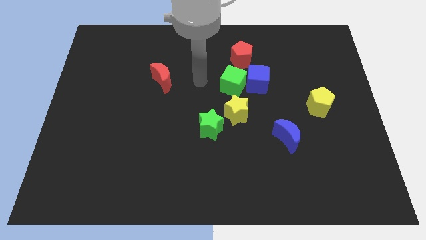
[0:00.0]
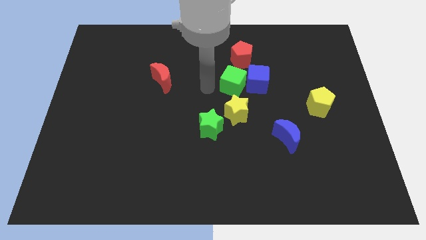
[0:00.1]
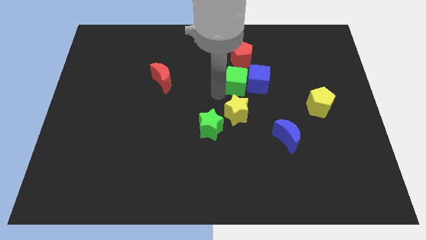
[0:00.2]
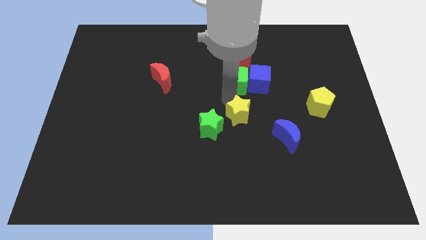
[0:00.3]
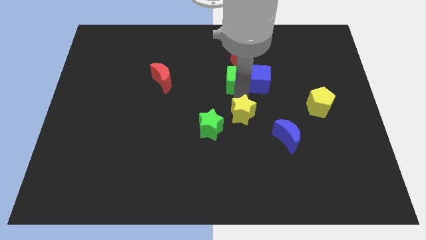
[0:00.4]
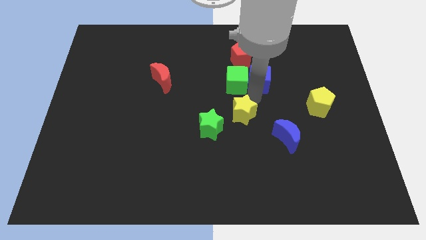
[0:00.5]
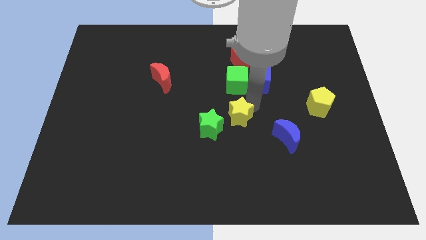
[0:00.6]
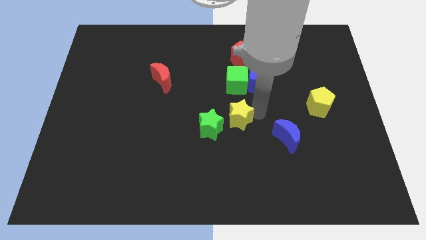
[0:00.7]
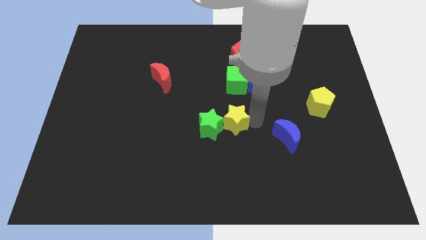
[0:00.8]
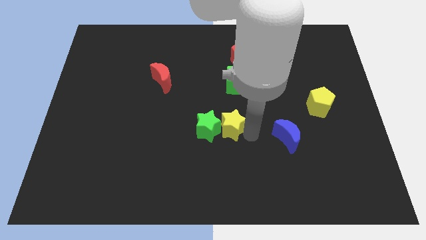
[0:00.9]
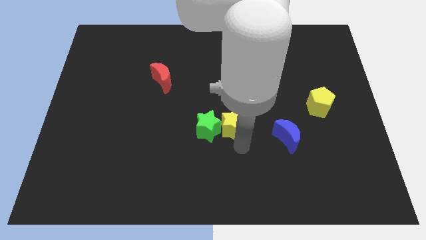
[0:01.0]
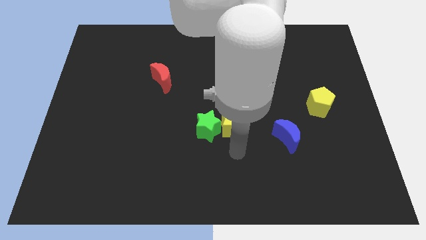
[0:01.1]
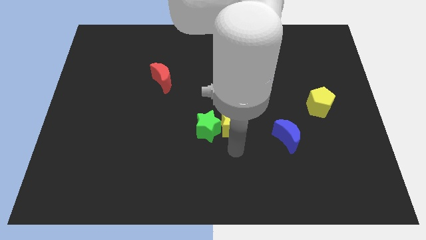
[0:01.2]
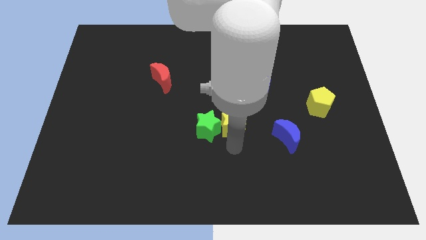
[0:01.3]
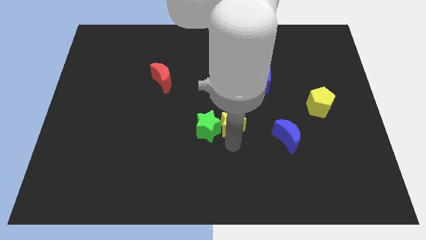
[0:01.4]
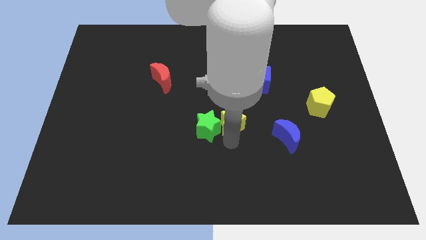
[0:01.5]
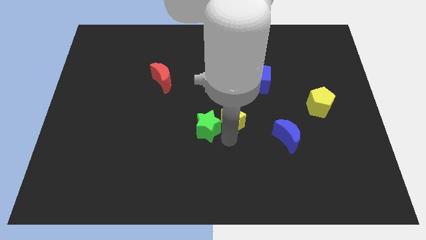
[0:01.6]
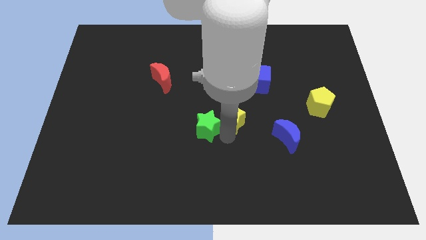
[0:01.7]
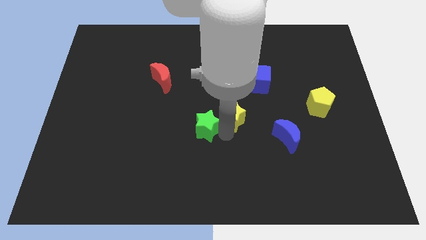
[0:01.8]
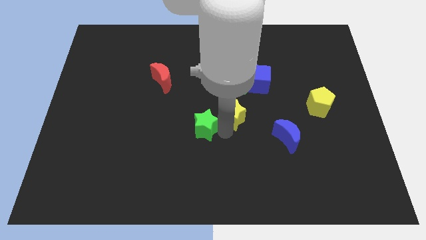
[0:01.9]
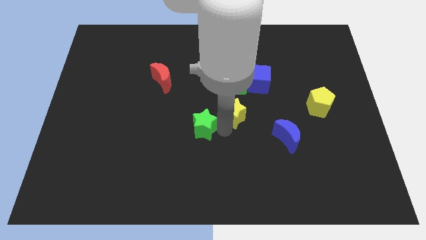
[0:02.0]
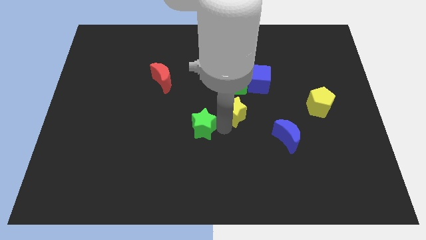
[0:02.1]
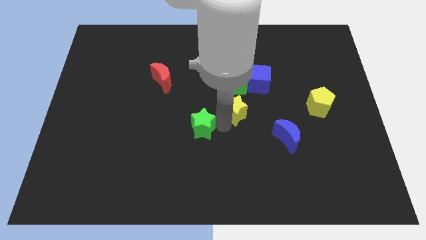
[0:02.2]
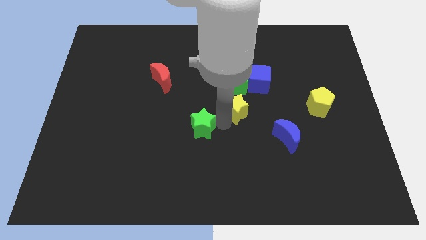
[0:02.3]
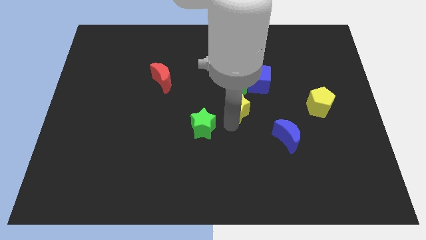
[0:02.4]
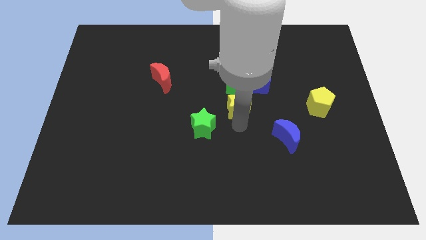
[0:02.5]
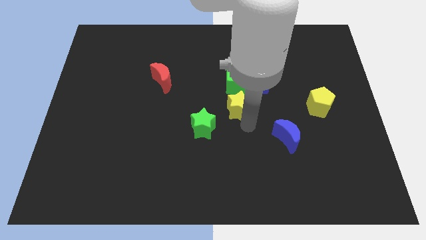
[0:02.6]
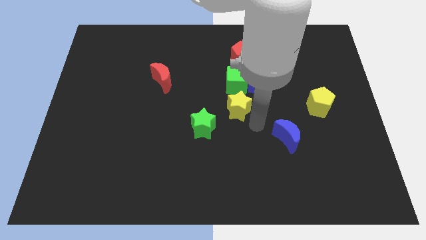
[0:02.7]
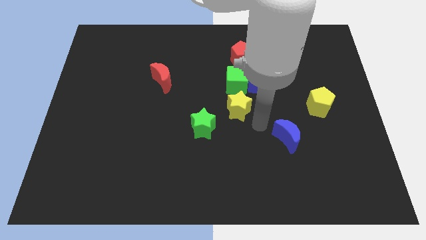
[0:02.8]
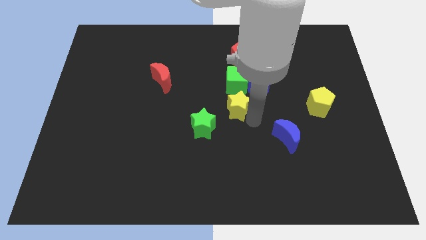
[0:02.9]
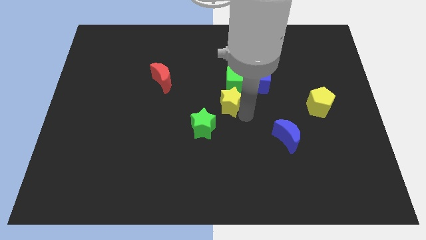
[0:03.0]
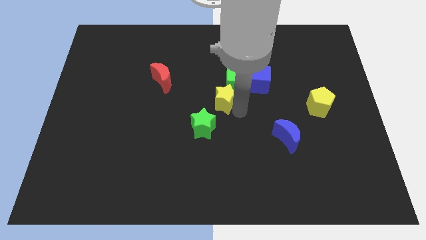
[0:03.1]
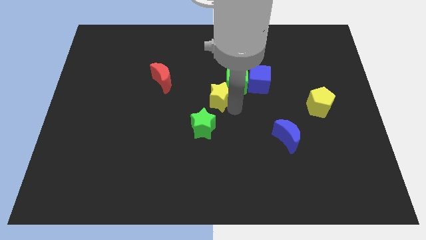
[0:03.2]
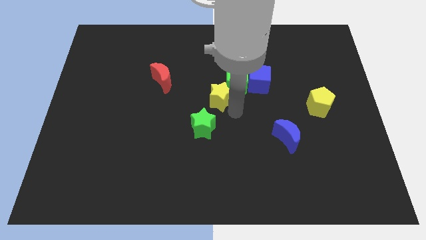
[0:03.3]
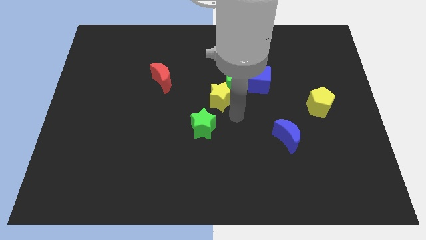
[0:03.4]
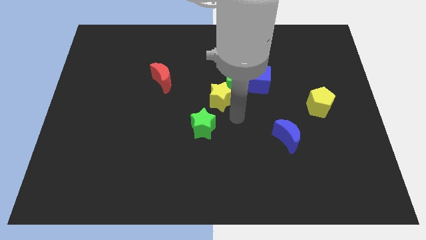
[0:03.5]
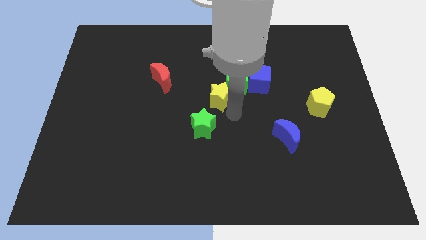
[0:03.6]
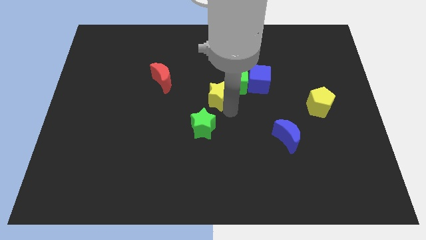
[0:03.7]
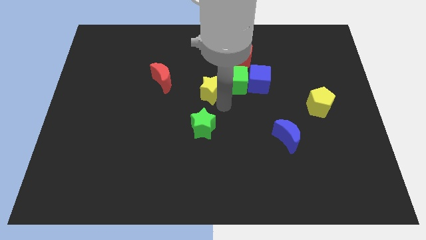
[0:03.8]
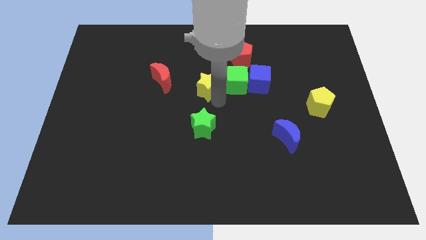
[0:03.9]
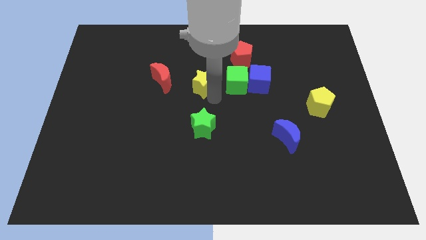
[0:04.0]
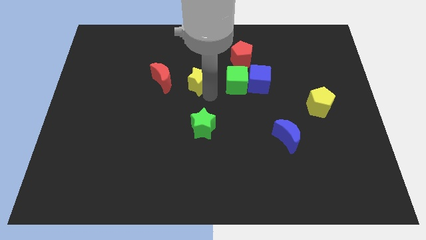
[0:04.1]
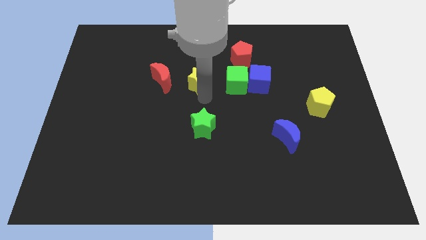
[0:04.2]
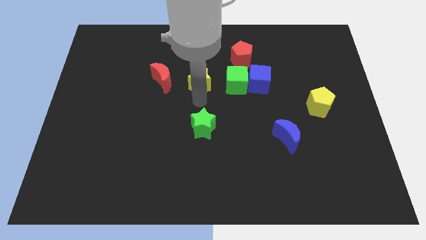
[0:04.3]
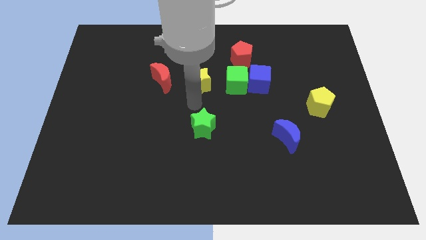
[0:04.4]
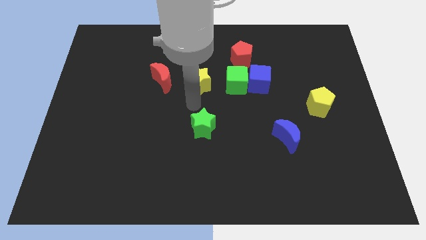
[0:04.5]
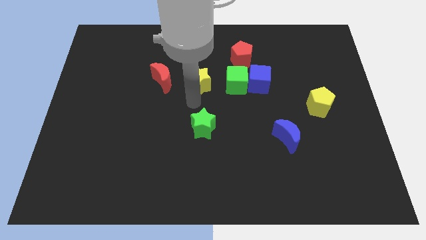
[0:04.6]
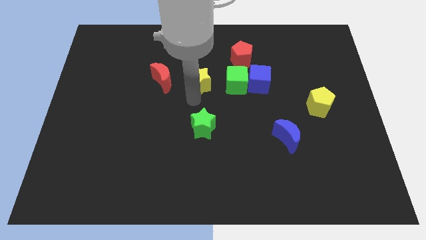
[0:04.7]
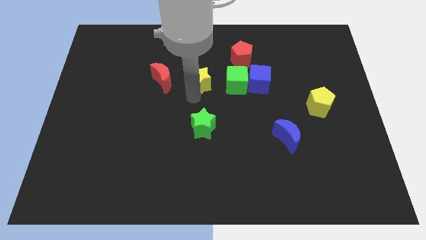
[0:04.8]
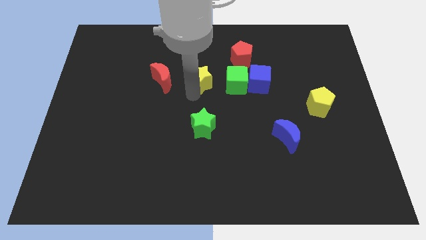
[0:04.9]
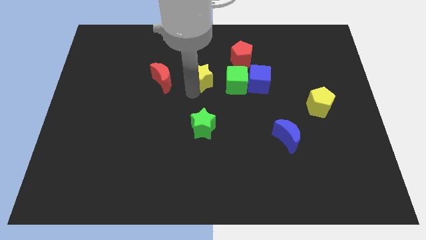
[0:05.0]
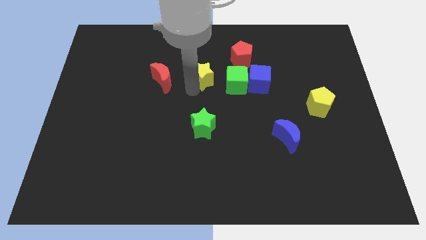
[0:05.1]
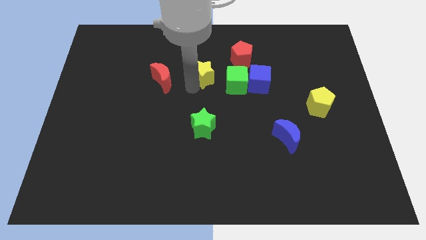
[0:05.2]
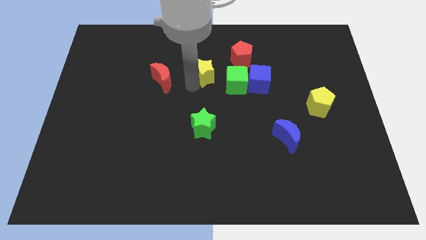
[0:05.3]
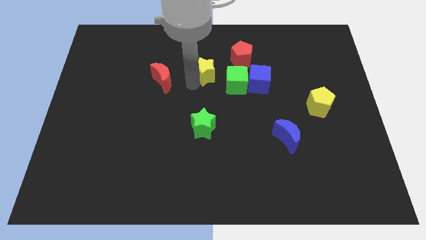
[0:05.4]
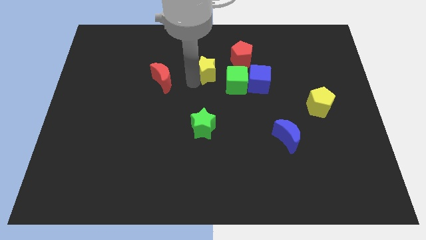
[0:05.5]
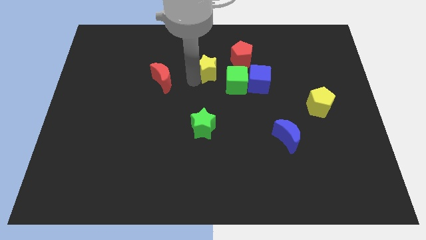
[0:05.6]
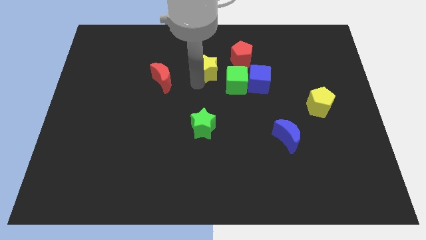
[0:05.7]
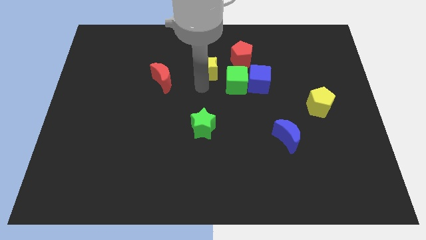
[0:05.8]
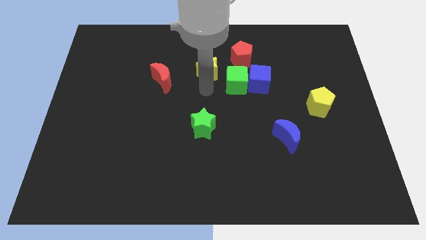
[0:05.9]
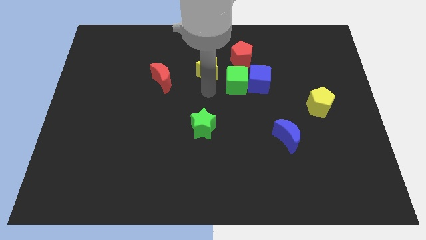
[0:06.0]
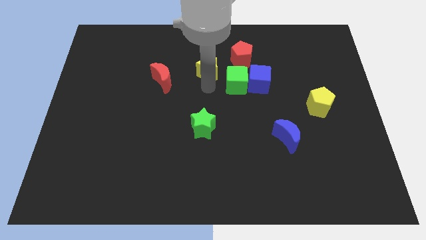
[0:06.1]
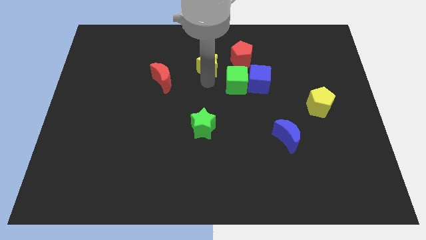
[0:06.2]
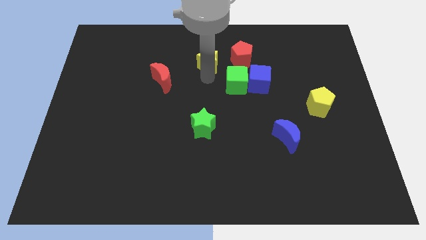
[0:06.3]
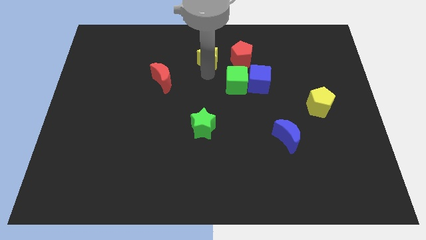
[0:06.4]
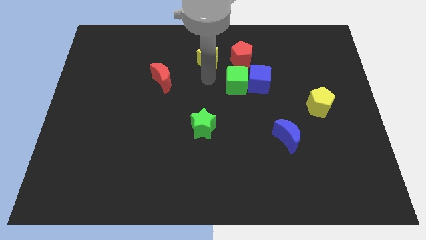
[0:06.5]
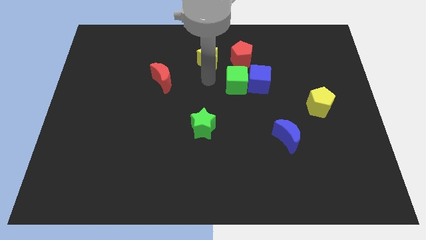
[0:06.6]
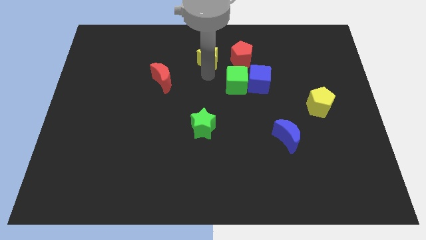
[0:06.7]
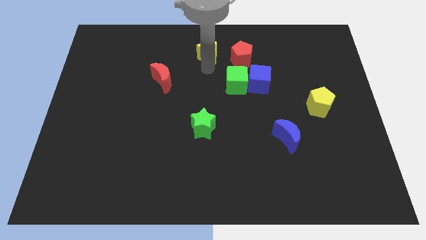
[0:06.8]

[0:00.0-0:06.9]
move the yellow star to the top
